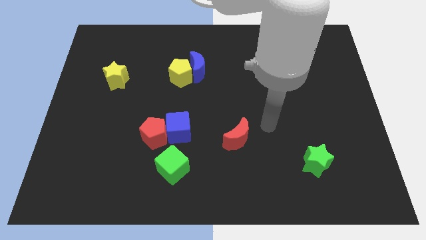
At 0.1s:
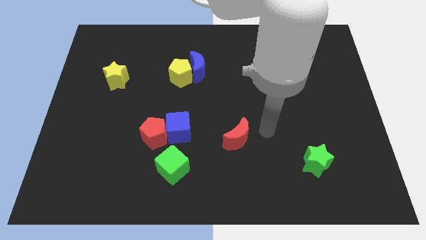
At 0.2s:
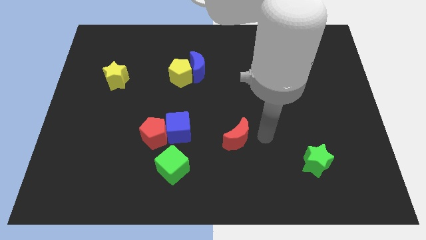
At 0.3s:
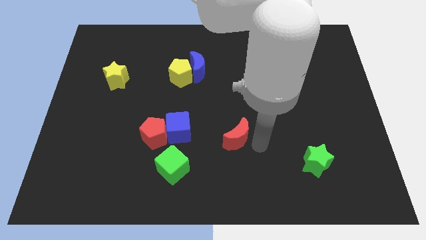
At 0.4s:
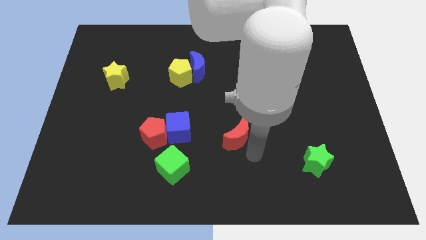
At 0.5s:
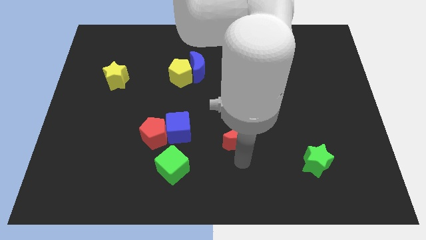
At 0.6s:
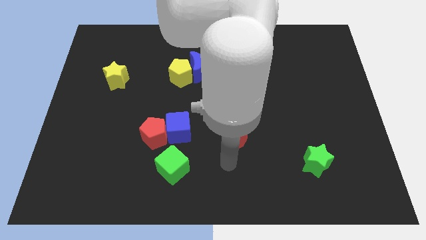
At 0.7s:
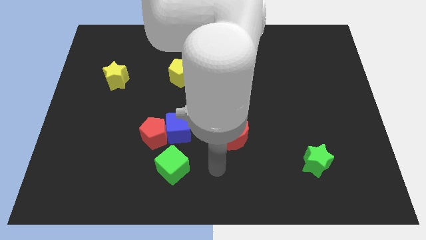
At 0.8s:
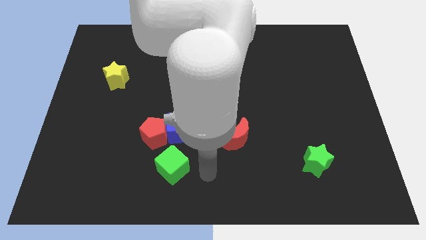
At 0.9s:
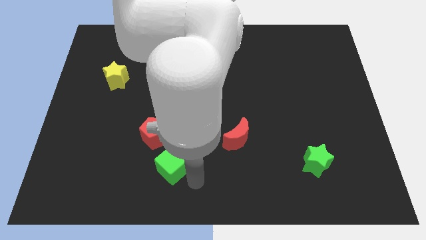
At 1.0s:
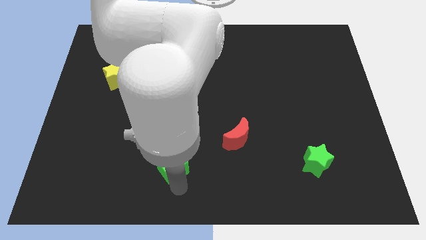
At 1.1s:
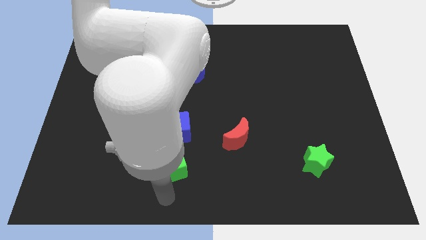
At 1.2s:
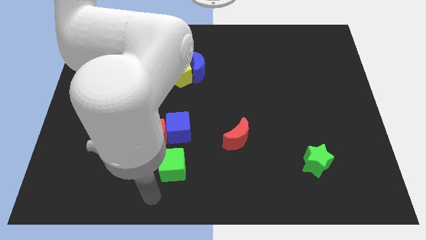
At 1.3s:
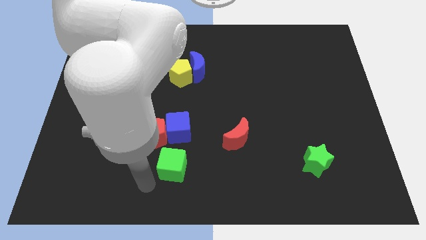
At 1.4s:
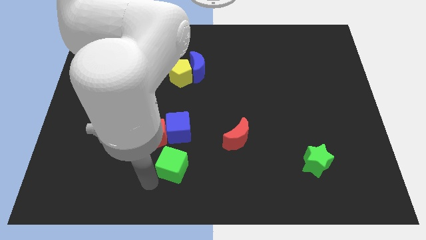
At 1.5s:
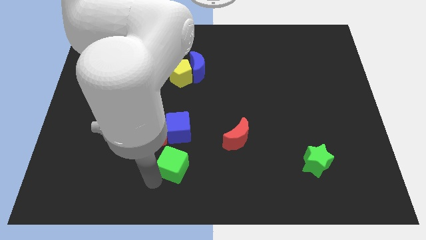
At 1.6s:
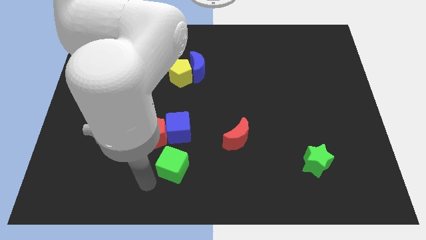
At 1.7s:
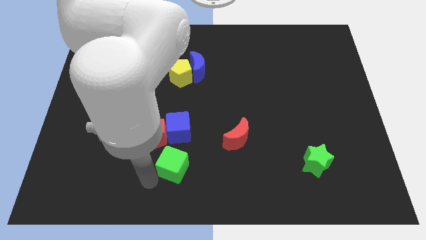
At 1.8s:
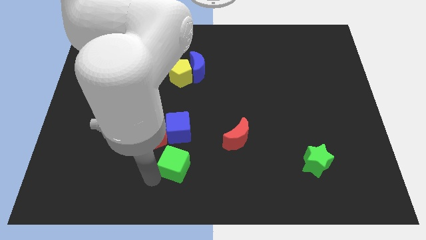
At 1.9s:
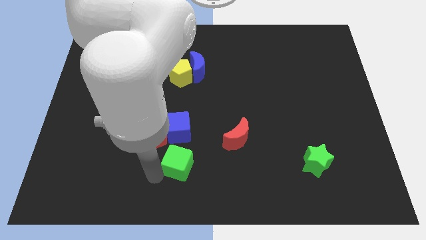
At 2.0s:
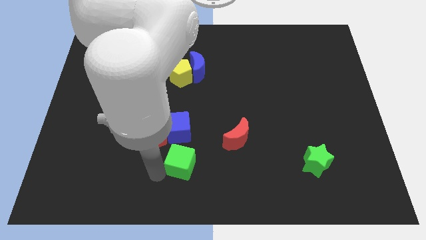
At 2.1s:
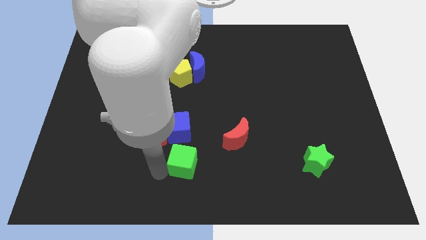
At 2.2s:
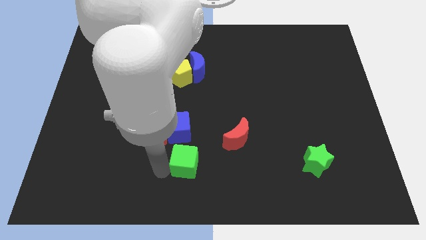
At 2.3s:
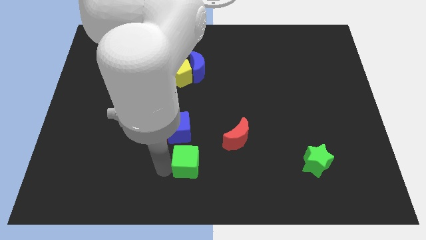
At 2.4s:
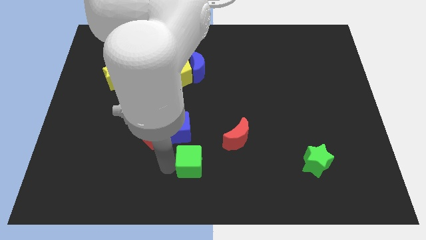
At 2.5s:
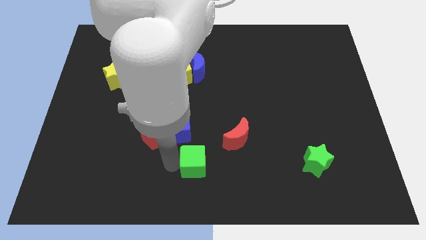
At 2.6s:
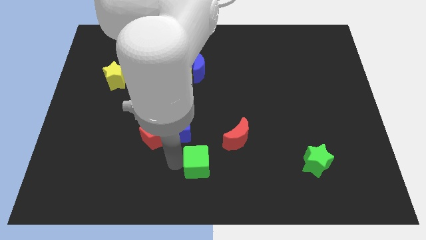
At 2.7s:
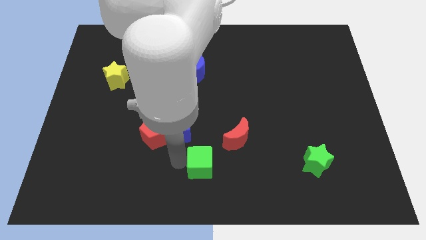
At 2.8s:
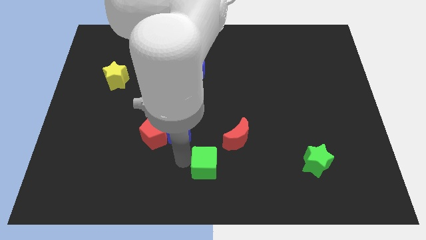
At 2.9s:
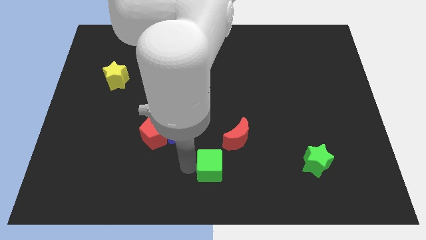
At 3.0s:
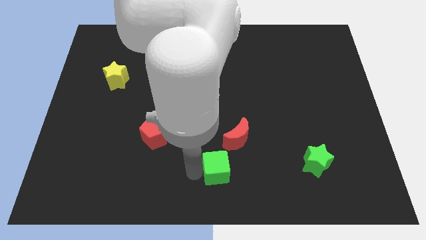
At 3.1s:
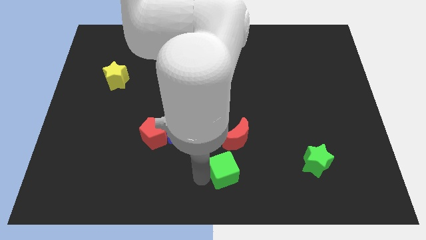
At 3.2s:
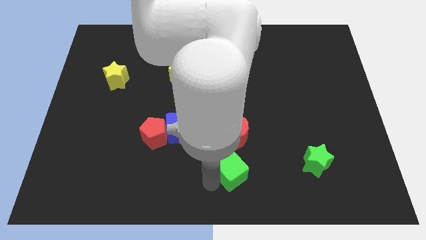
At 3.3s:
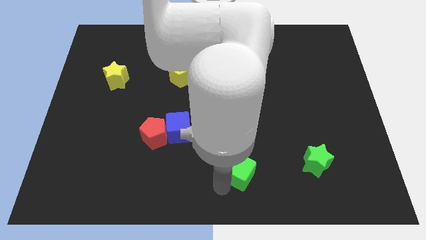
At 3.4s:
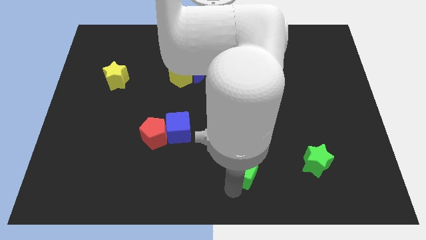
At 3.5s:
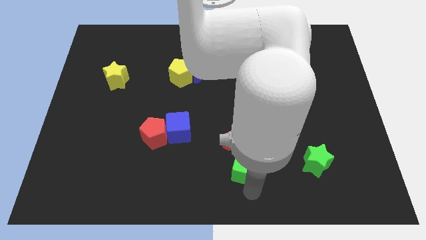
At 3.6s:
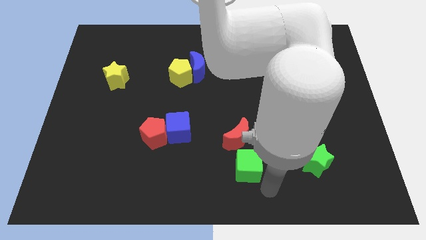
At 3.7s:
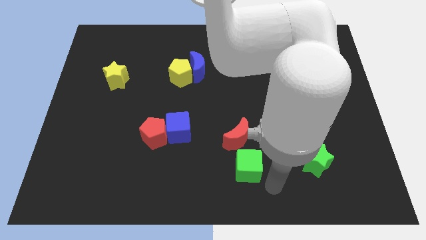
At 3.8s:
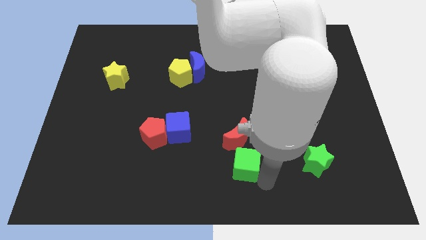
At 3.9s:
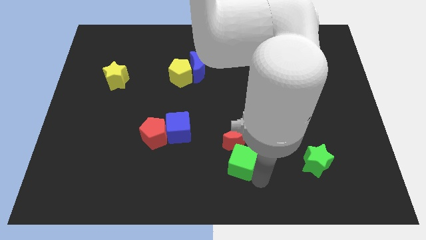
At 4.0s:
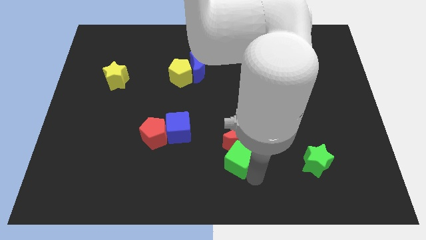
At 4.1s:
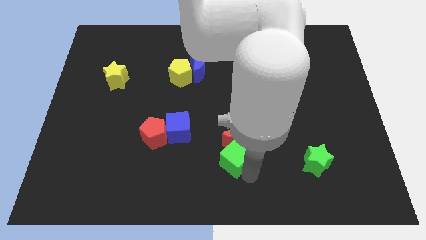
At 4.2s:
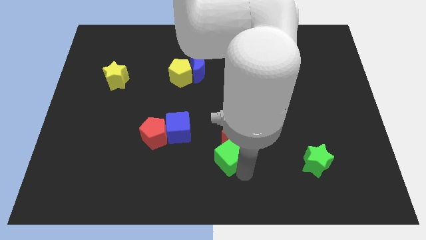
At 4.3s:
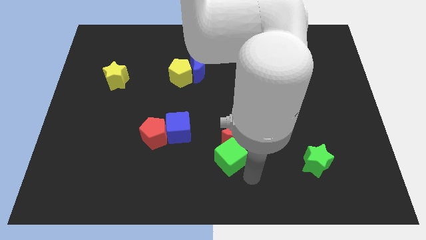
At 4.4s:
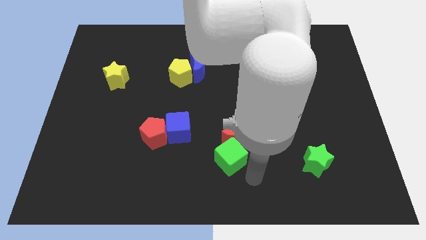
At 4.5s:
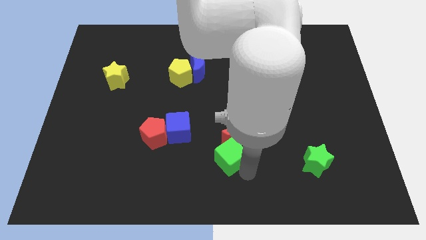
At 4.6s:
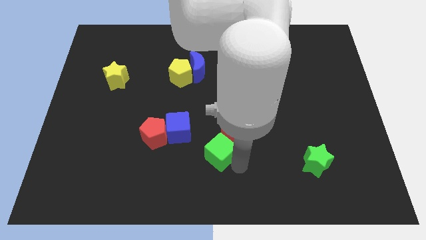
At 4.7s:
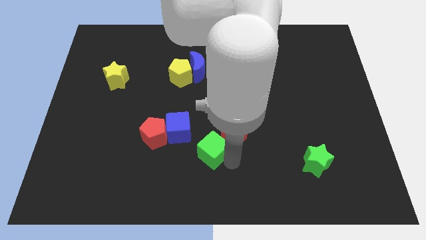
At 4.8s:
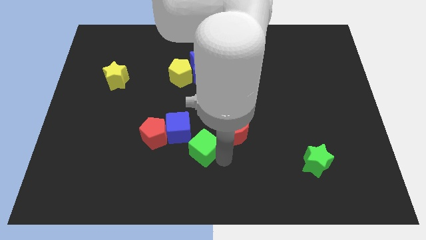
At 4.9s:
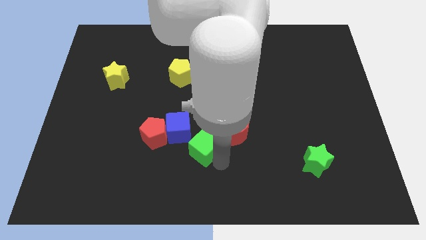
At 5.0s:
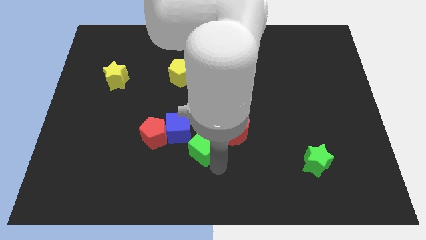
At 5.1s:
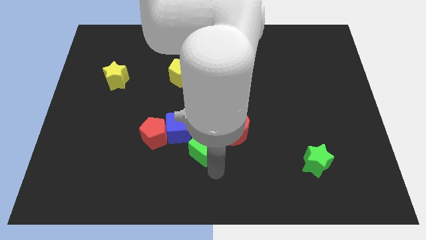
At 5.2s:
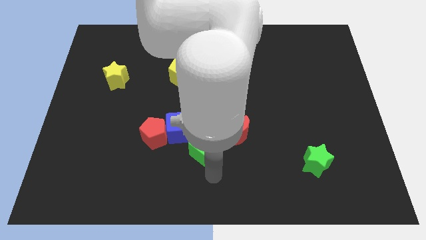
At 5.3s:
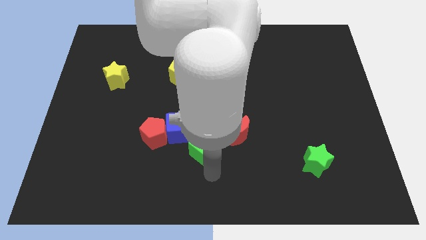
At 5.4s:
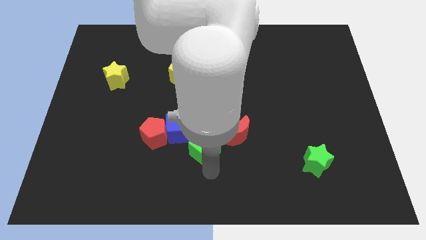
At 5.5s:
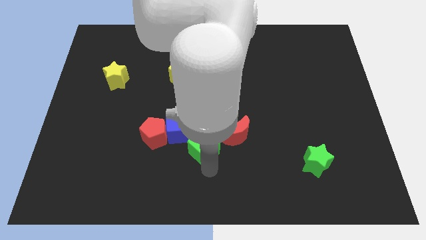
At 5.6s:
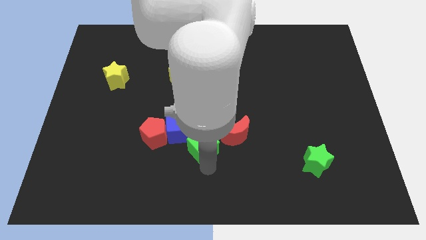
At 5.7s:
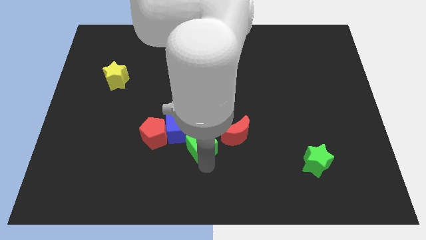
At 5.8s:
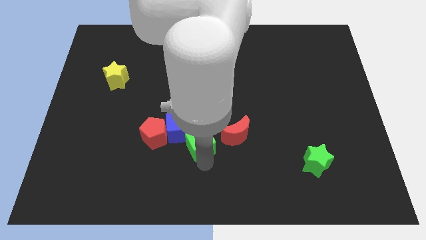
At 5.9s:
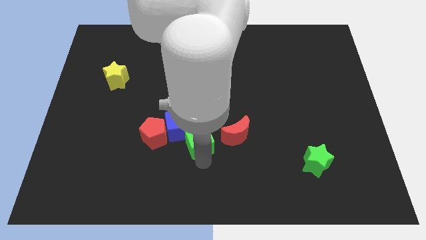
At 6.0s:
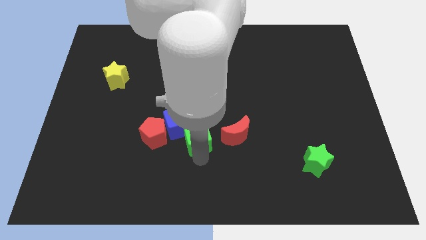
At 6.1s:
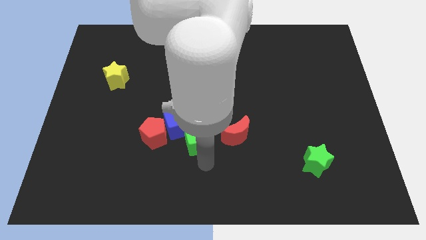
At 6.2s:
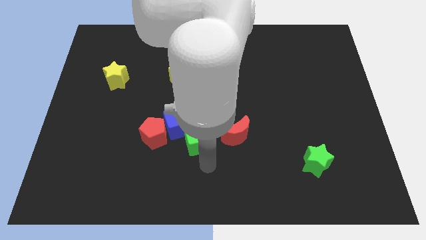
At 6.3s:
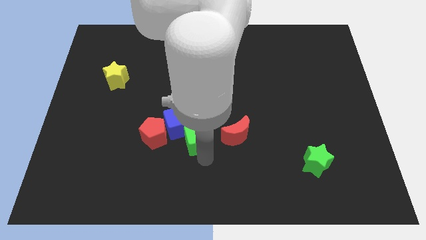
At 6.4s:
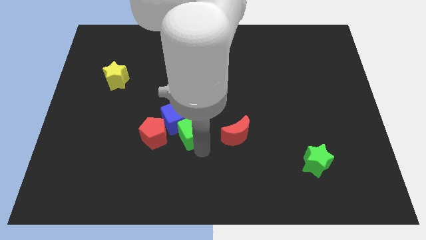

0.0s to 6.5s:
push the green cube a little up

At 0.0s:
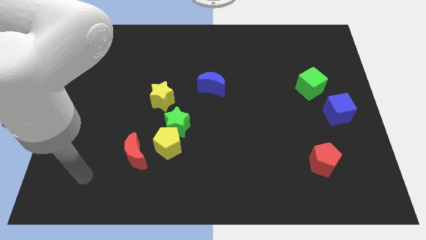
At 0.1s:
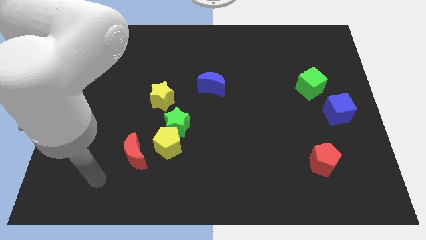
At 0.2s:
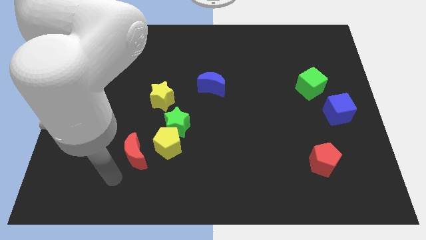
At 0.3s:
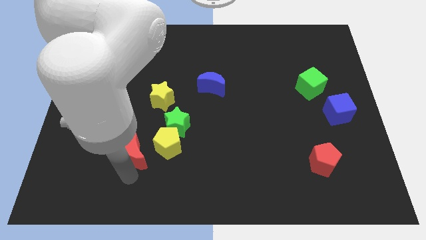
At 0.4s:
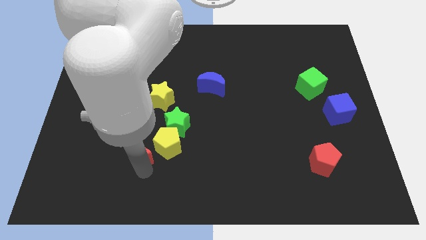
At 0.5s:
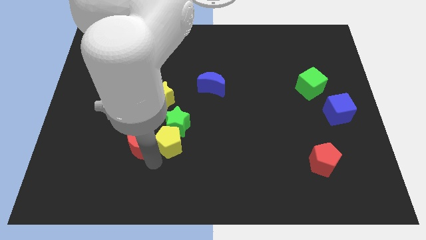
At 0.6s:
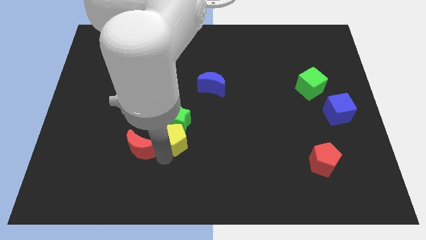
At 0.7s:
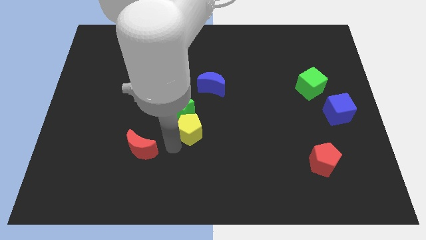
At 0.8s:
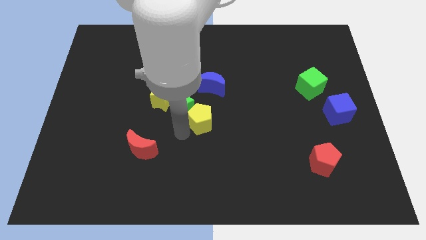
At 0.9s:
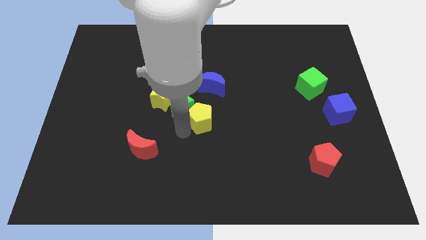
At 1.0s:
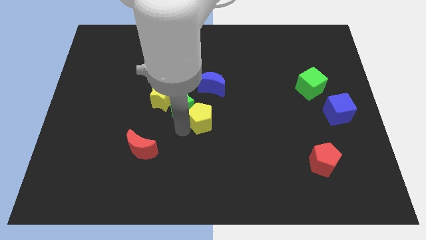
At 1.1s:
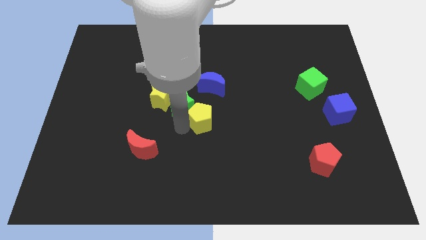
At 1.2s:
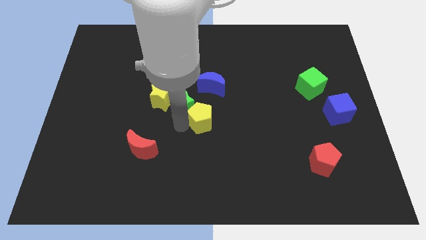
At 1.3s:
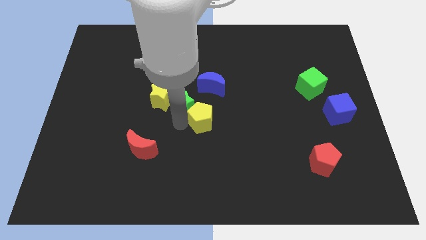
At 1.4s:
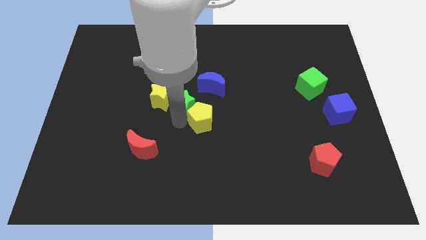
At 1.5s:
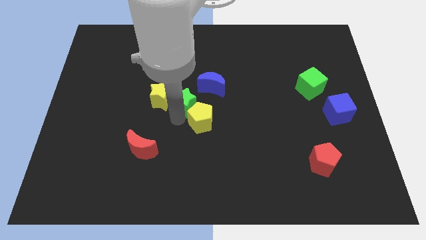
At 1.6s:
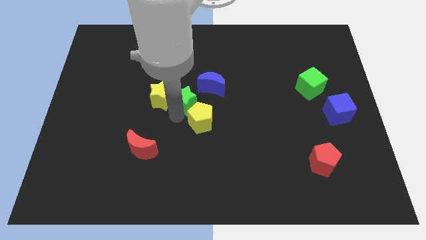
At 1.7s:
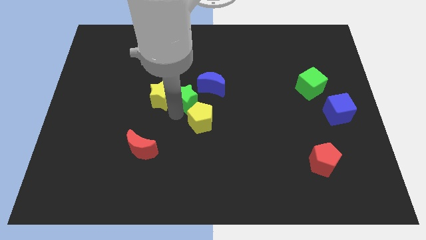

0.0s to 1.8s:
push the green star up somewhat

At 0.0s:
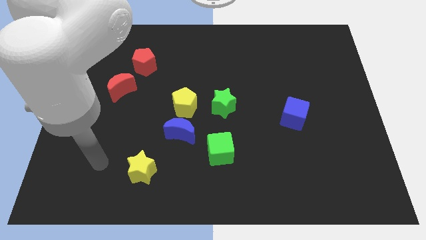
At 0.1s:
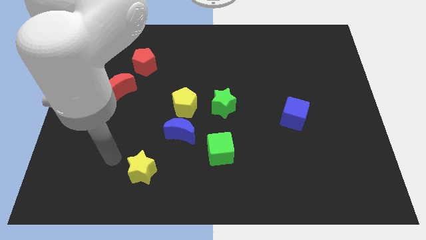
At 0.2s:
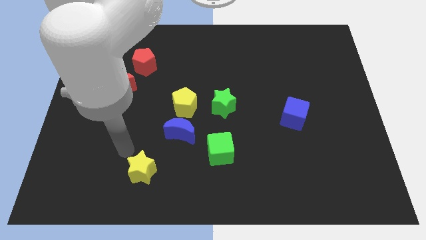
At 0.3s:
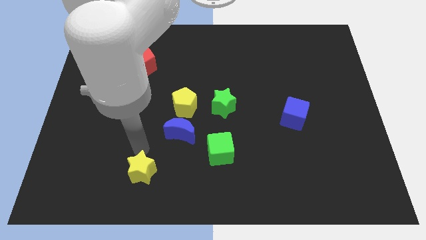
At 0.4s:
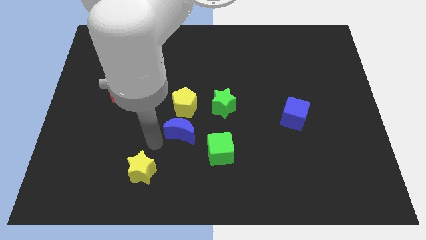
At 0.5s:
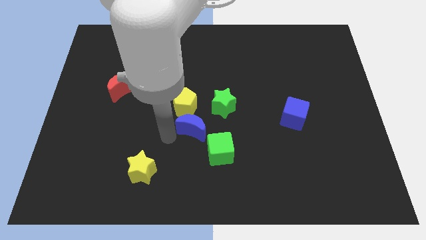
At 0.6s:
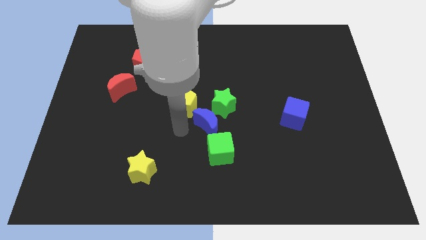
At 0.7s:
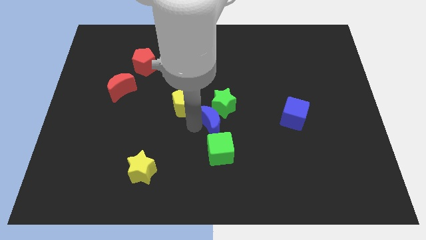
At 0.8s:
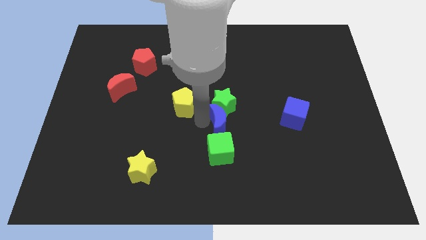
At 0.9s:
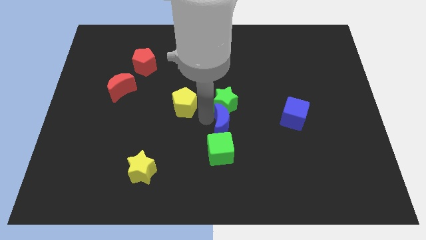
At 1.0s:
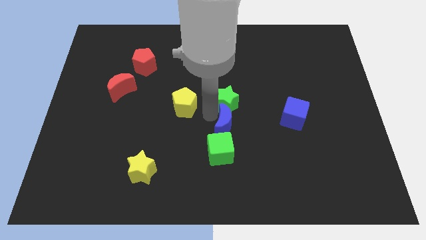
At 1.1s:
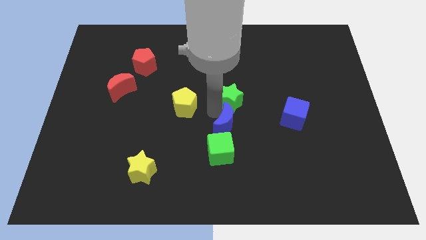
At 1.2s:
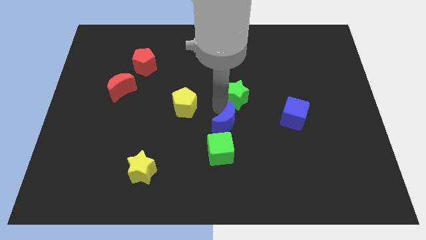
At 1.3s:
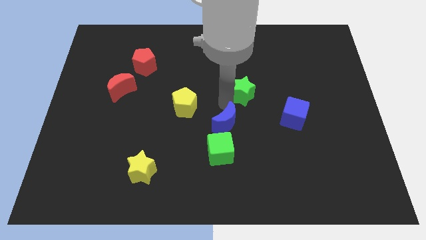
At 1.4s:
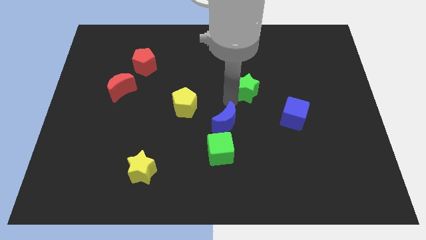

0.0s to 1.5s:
slightly push the green star up and to the right diagonally
